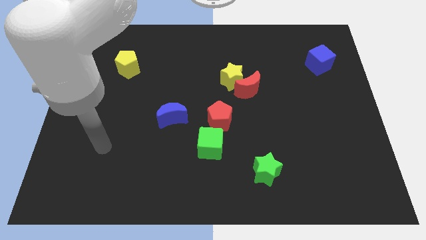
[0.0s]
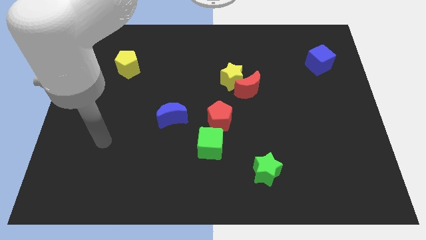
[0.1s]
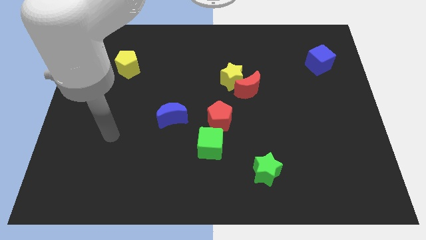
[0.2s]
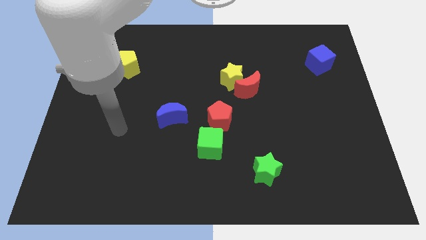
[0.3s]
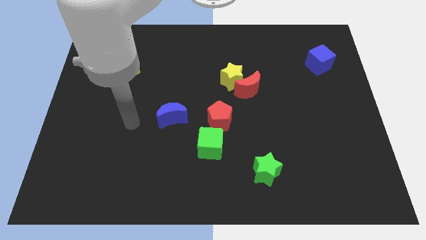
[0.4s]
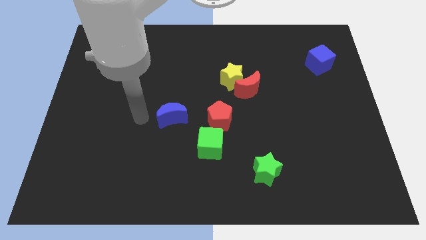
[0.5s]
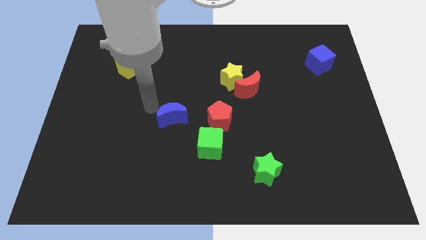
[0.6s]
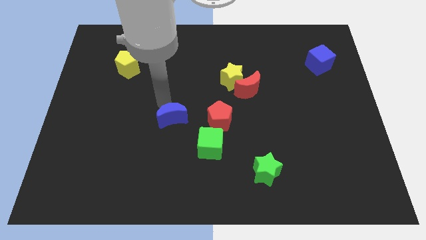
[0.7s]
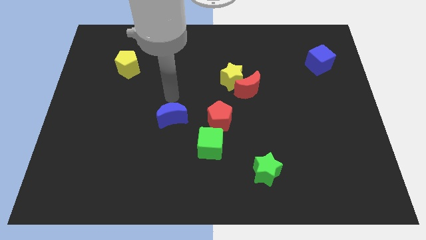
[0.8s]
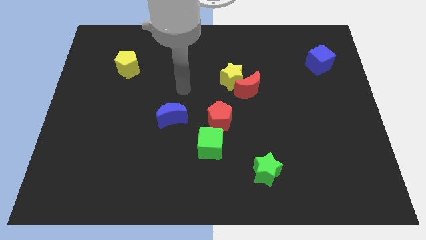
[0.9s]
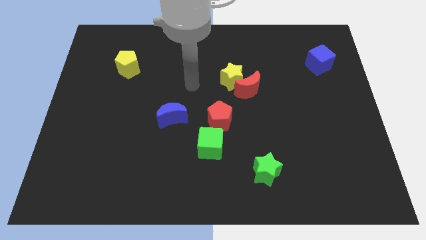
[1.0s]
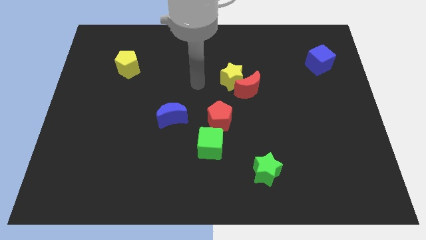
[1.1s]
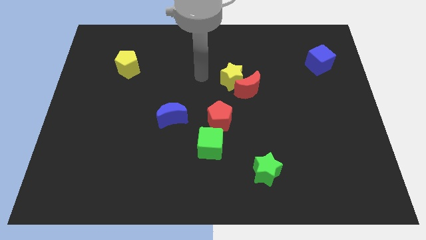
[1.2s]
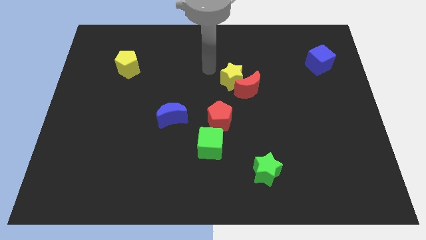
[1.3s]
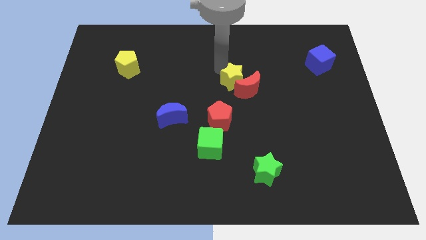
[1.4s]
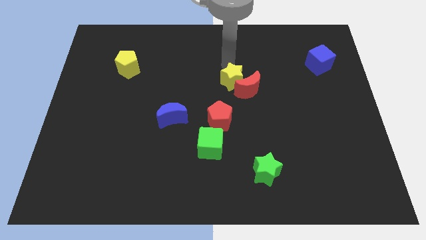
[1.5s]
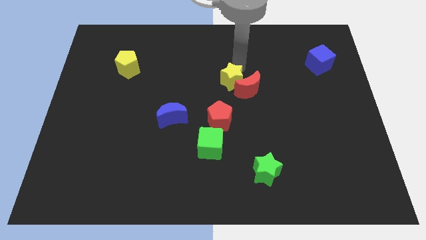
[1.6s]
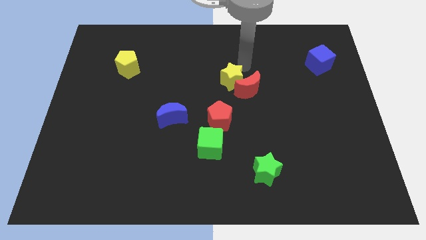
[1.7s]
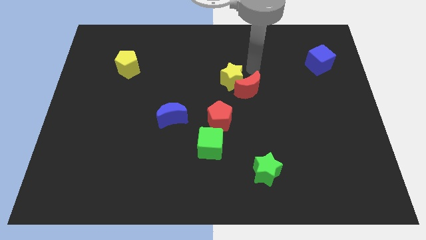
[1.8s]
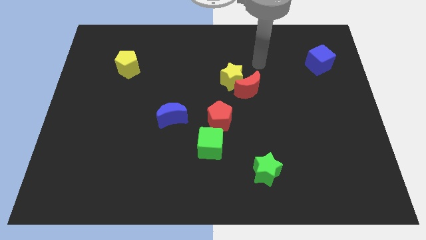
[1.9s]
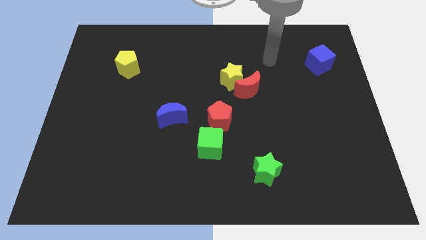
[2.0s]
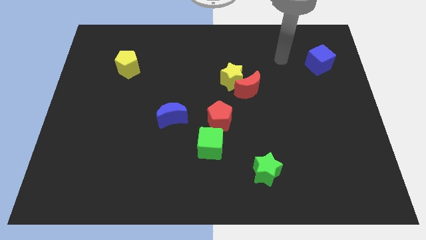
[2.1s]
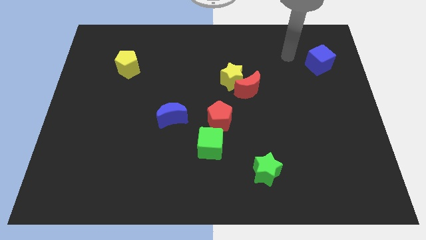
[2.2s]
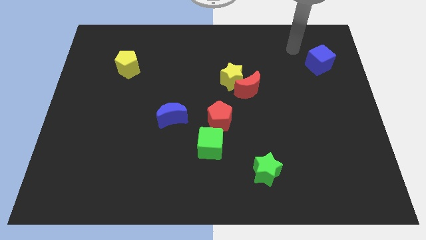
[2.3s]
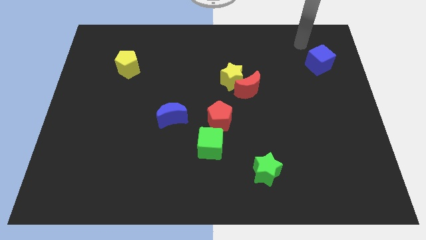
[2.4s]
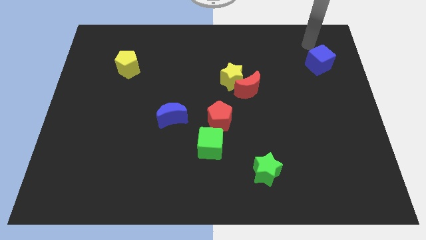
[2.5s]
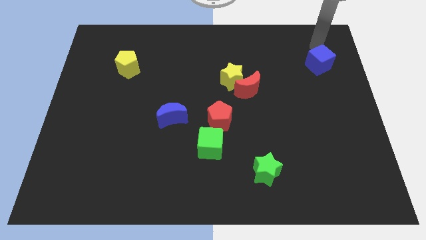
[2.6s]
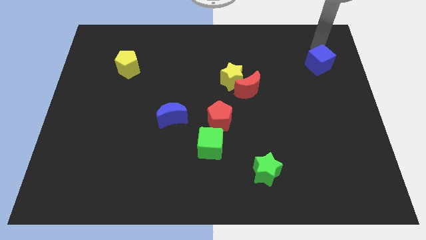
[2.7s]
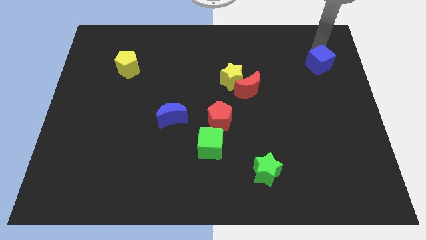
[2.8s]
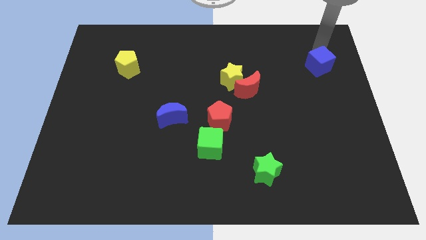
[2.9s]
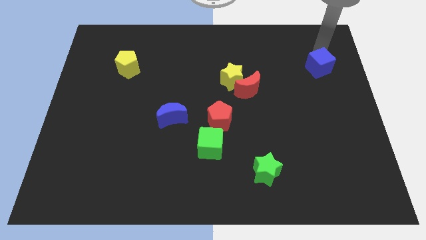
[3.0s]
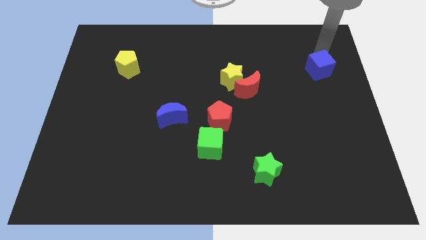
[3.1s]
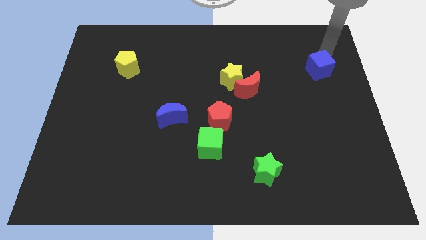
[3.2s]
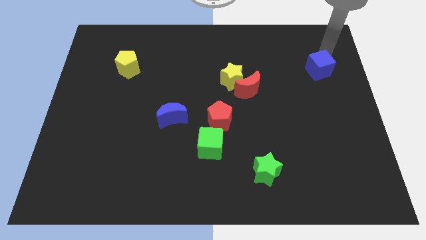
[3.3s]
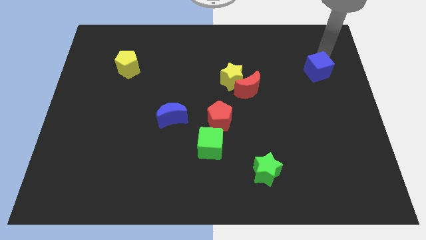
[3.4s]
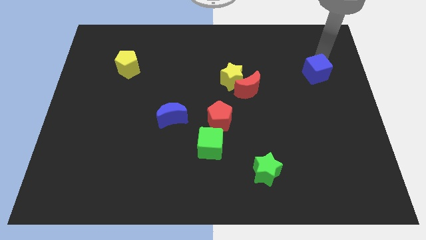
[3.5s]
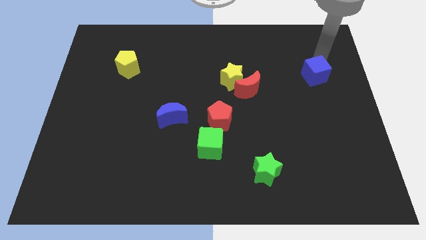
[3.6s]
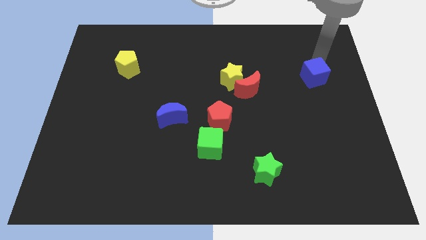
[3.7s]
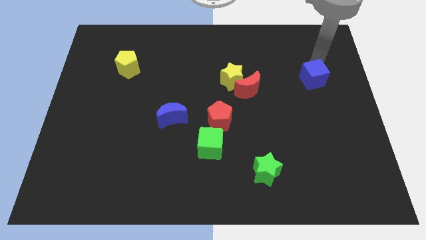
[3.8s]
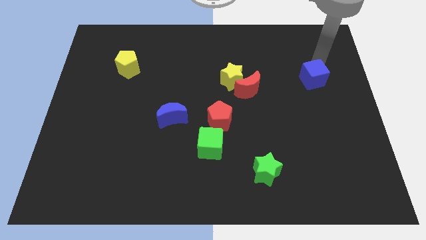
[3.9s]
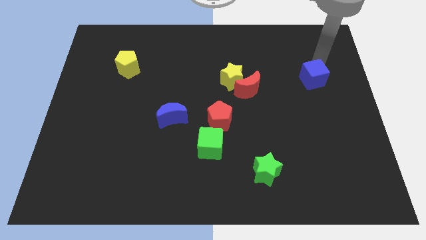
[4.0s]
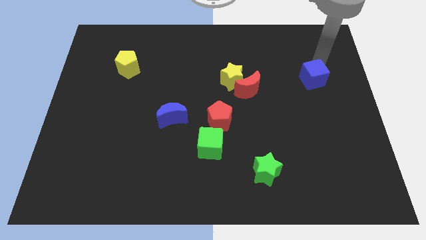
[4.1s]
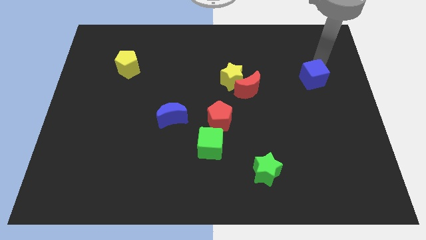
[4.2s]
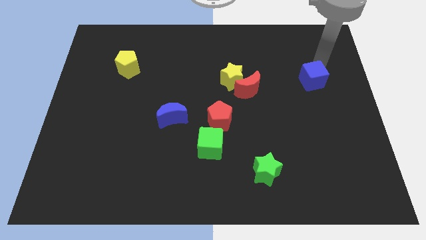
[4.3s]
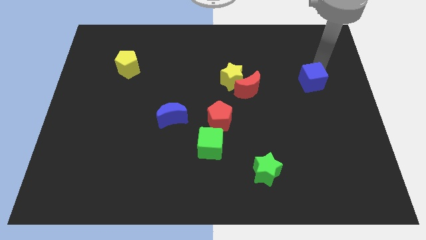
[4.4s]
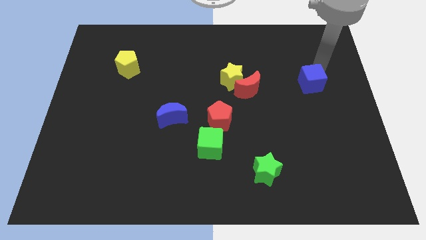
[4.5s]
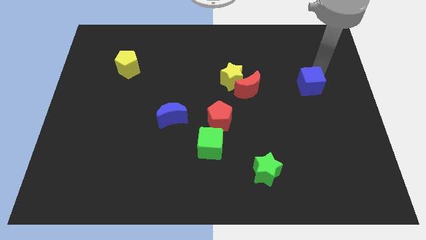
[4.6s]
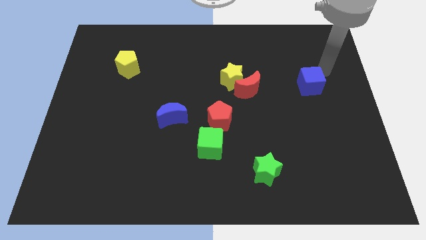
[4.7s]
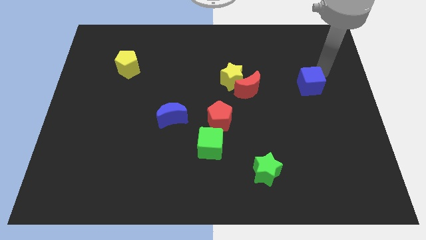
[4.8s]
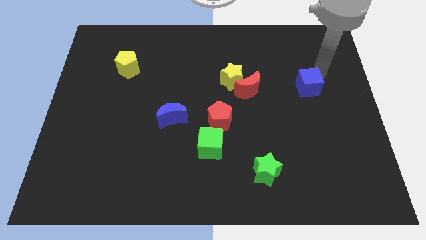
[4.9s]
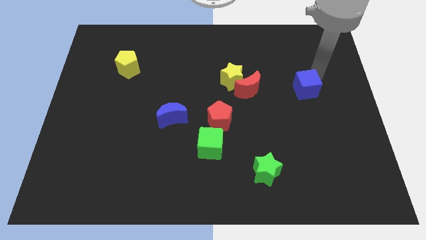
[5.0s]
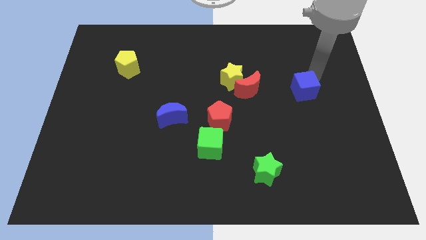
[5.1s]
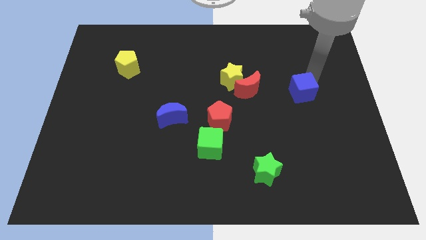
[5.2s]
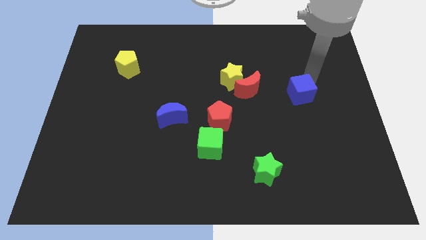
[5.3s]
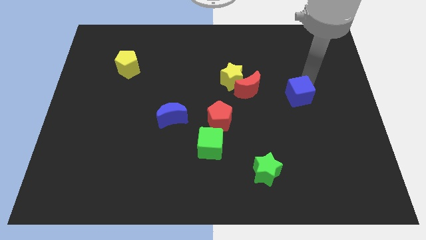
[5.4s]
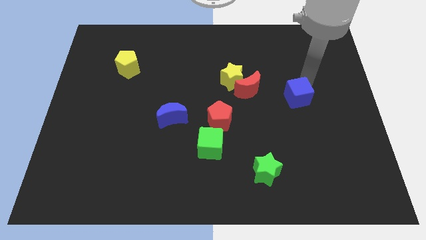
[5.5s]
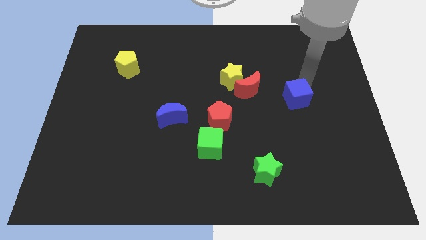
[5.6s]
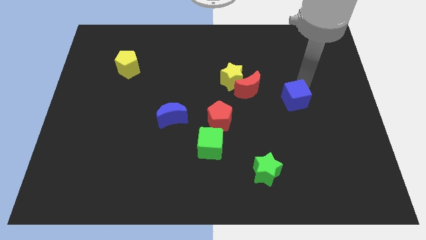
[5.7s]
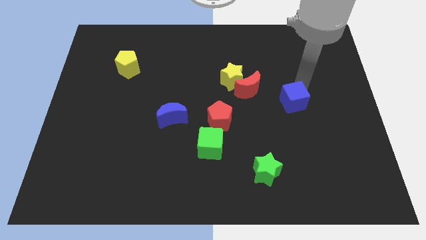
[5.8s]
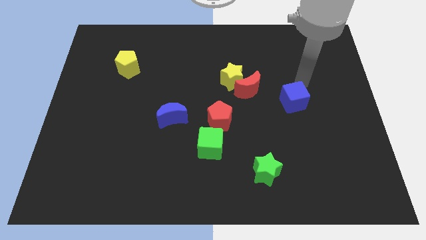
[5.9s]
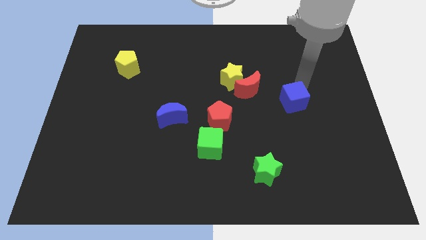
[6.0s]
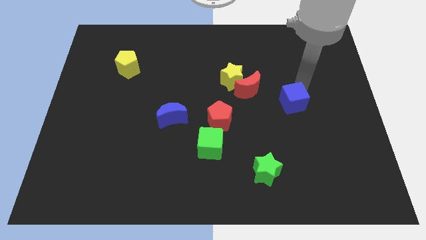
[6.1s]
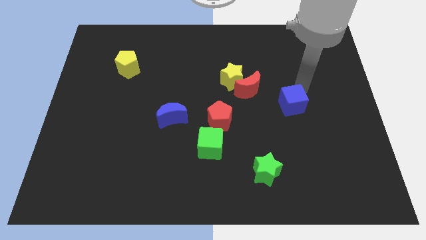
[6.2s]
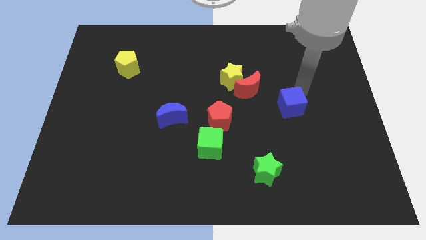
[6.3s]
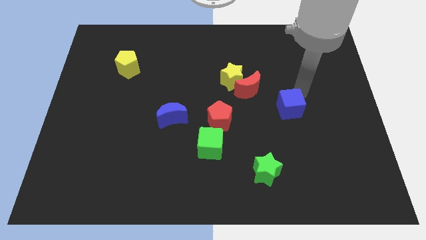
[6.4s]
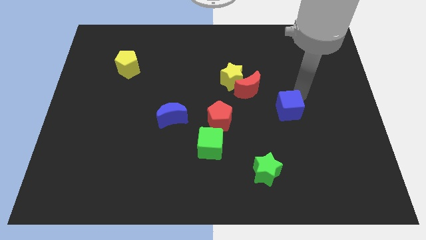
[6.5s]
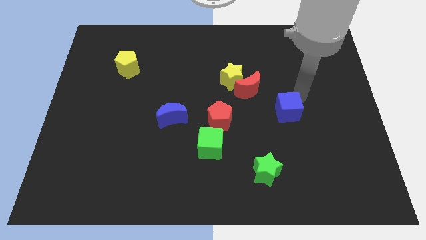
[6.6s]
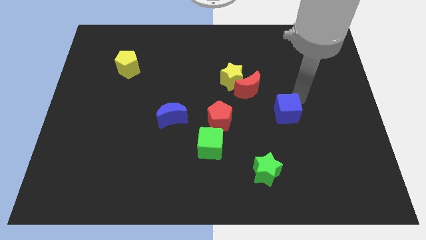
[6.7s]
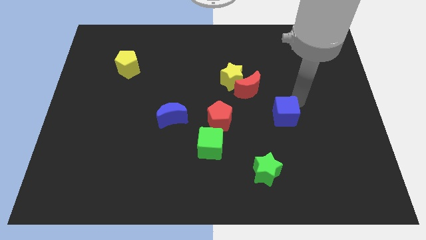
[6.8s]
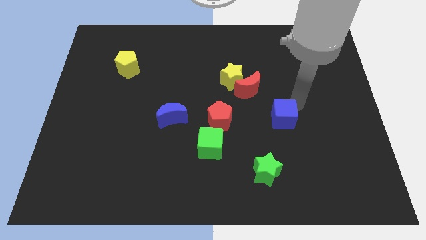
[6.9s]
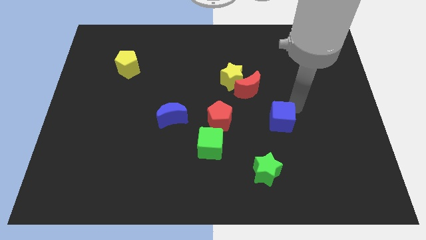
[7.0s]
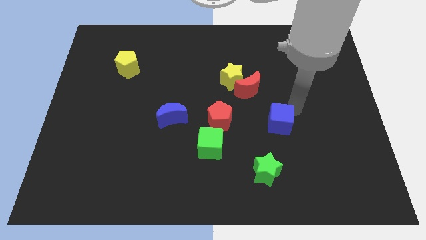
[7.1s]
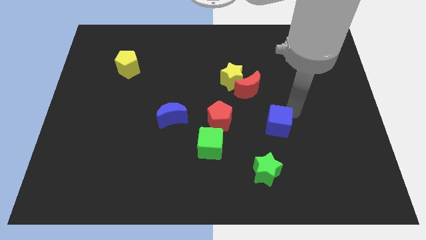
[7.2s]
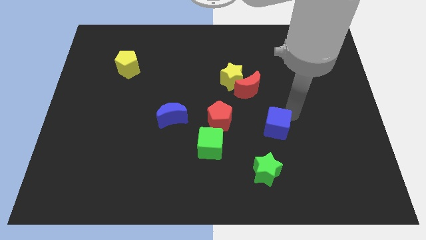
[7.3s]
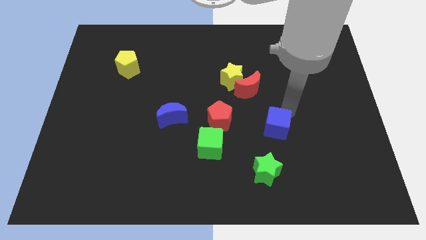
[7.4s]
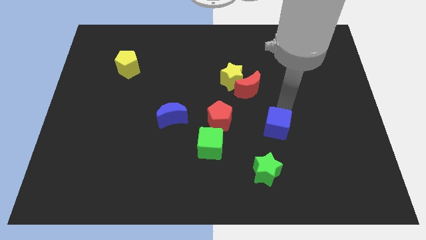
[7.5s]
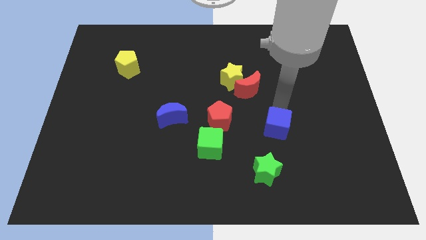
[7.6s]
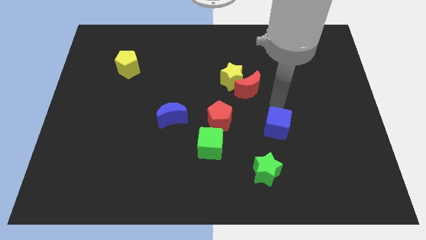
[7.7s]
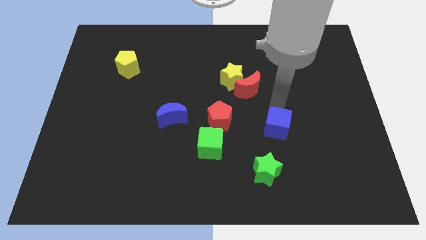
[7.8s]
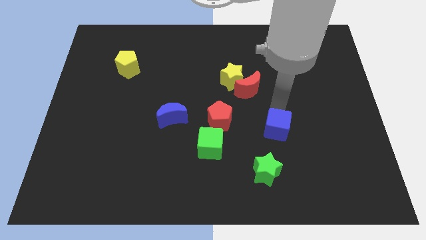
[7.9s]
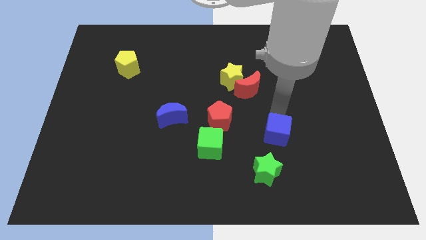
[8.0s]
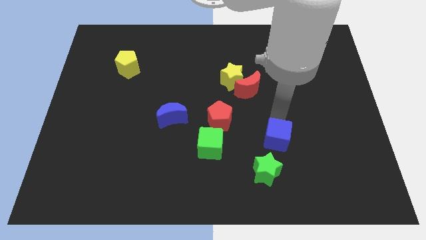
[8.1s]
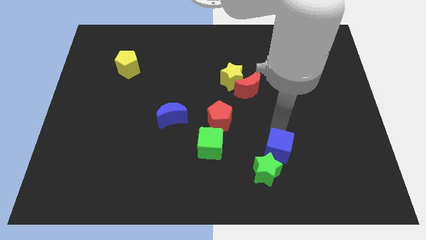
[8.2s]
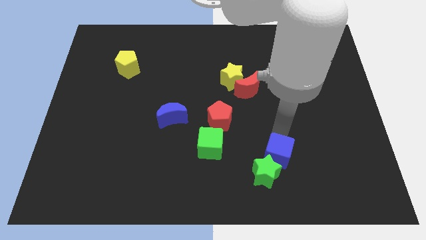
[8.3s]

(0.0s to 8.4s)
move the blue cube next to the green star
